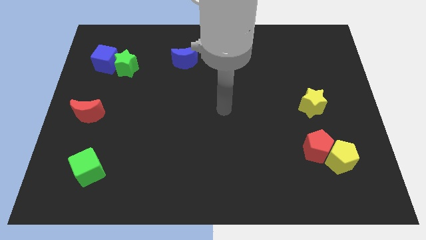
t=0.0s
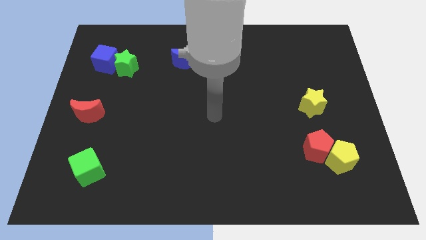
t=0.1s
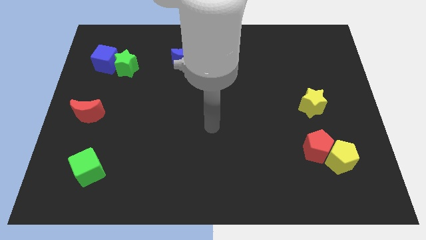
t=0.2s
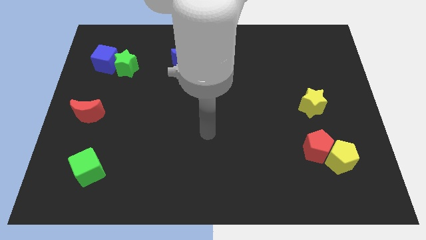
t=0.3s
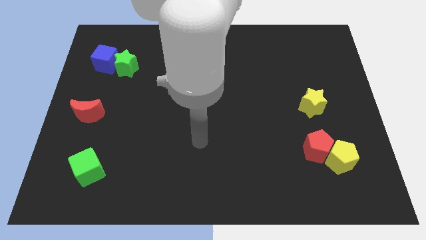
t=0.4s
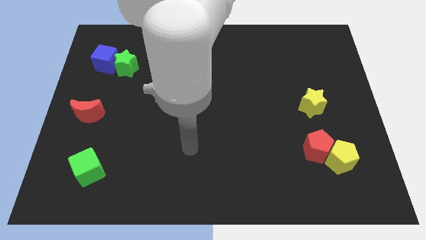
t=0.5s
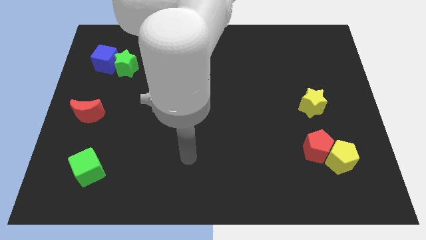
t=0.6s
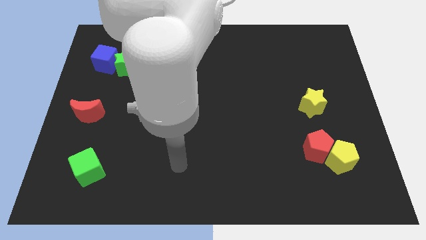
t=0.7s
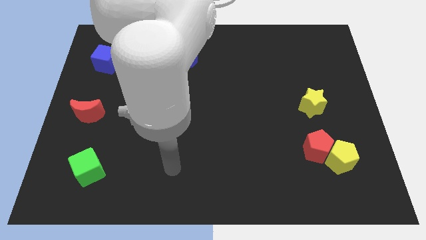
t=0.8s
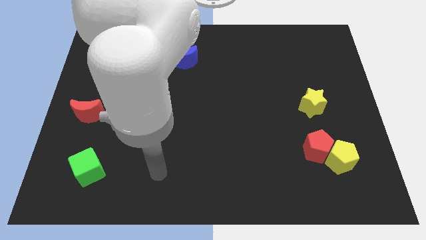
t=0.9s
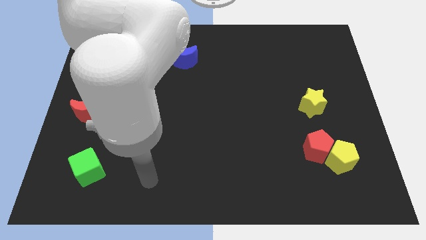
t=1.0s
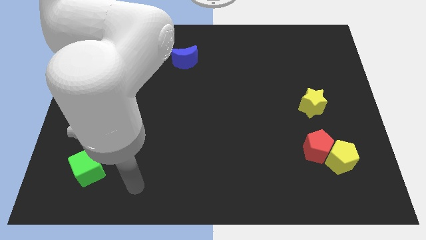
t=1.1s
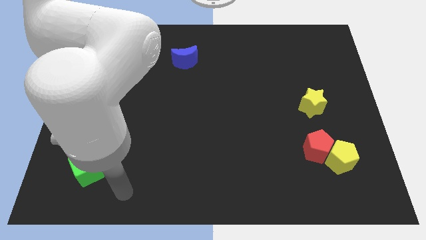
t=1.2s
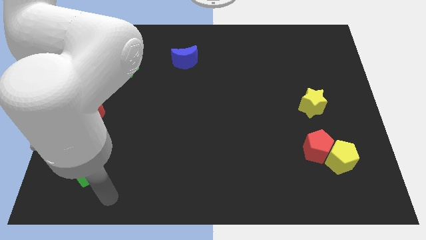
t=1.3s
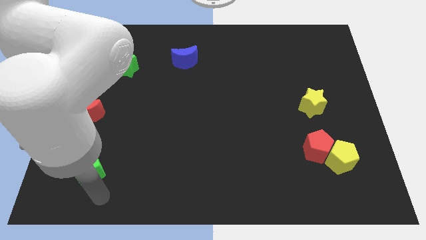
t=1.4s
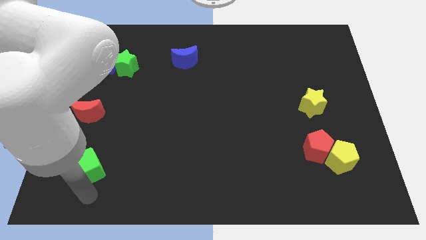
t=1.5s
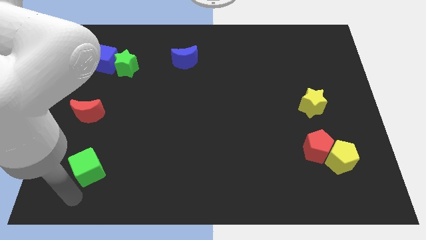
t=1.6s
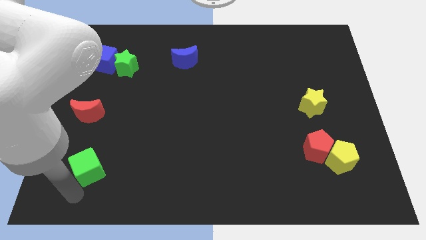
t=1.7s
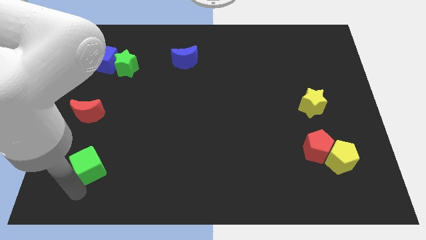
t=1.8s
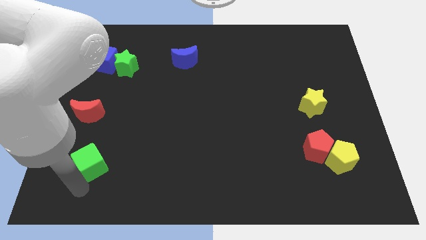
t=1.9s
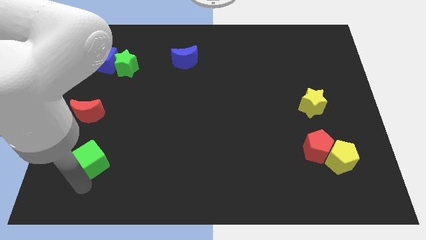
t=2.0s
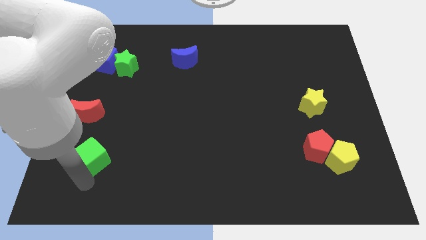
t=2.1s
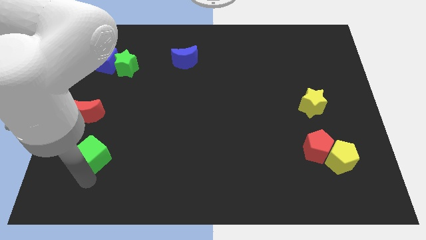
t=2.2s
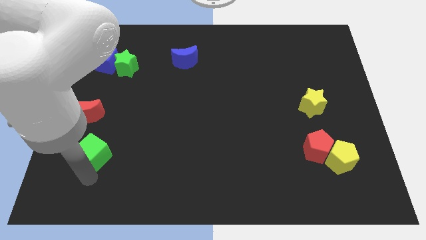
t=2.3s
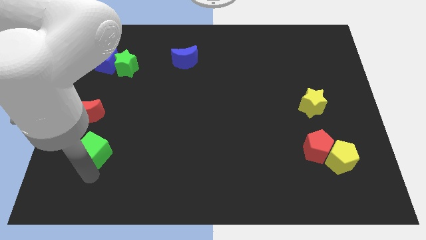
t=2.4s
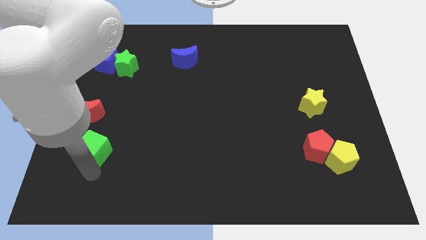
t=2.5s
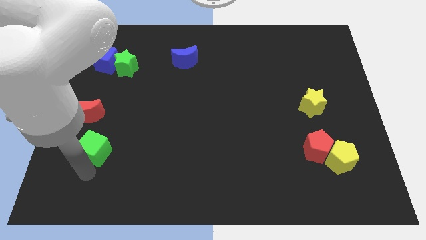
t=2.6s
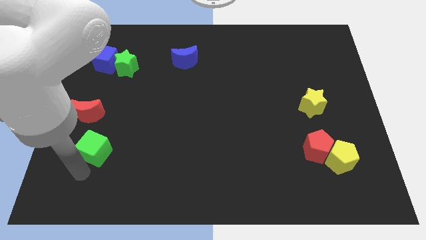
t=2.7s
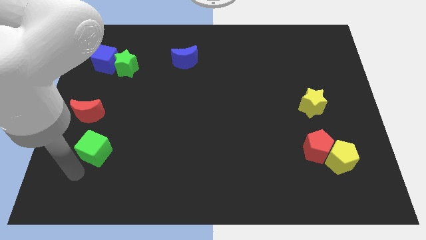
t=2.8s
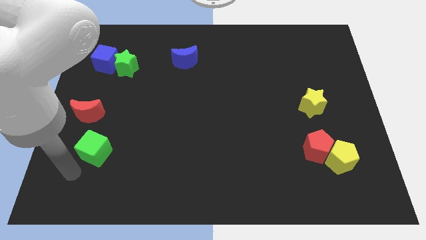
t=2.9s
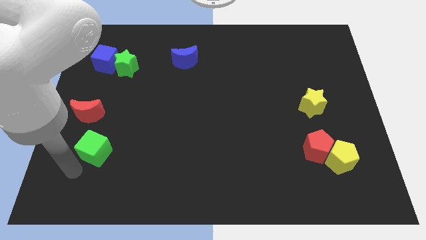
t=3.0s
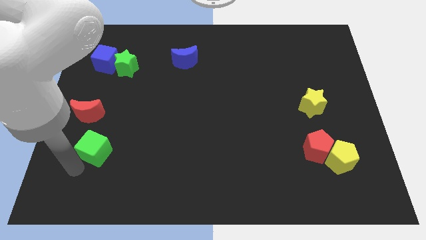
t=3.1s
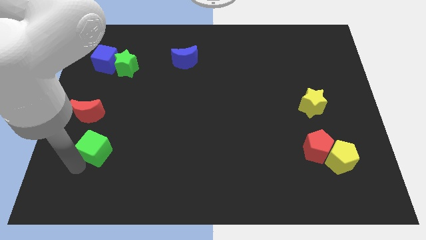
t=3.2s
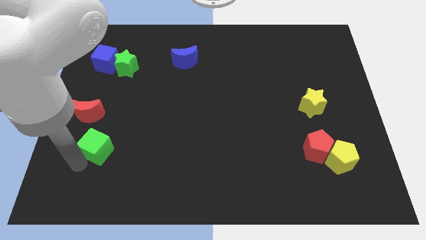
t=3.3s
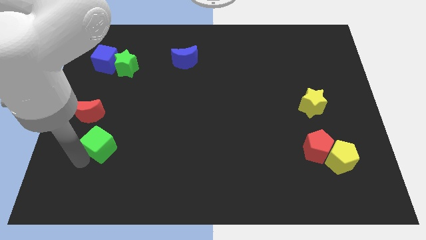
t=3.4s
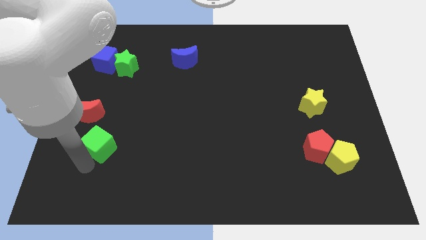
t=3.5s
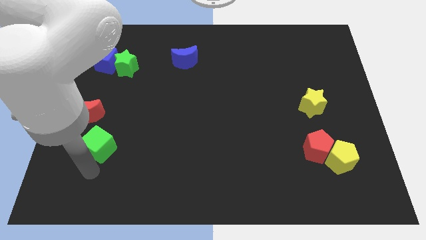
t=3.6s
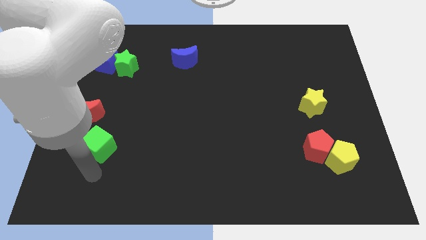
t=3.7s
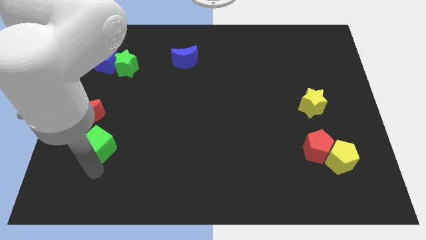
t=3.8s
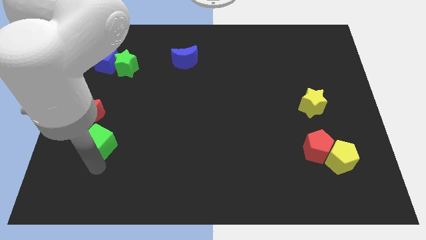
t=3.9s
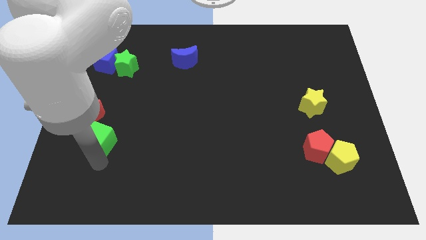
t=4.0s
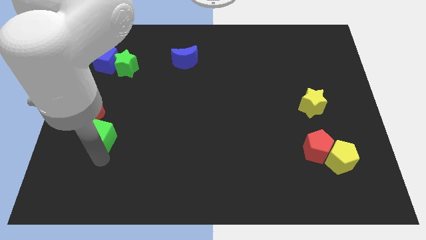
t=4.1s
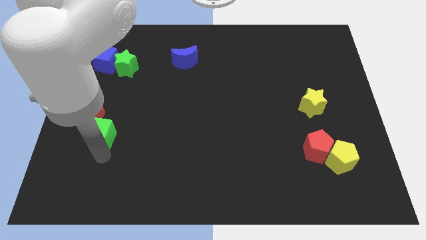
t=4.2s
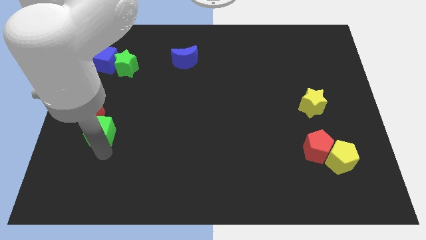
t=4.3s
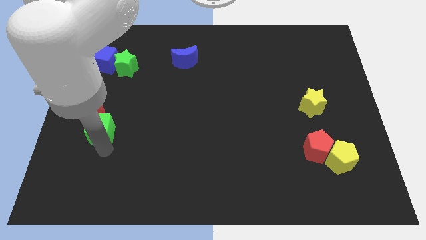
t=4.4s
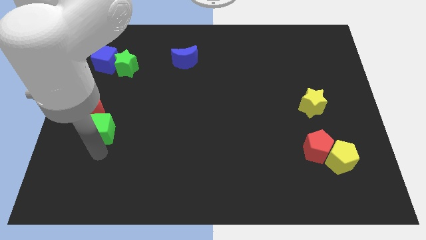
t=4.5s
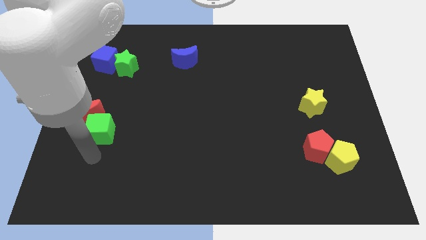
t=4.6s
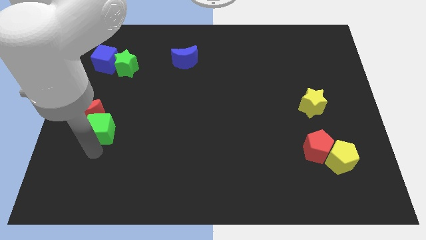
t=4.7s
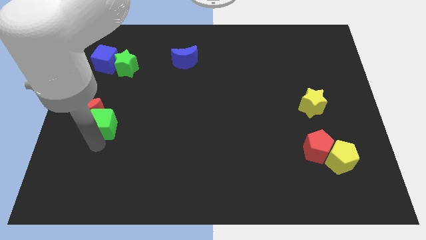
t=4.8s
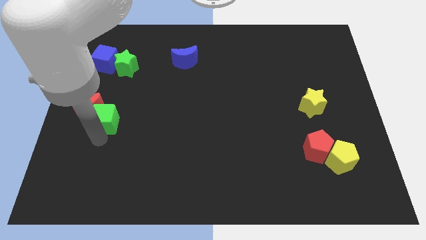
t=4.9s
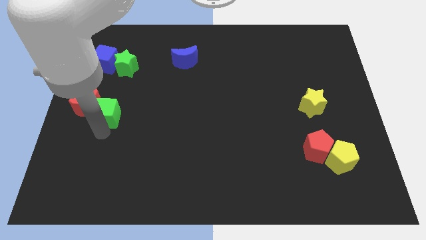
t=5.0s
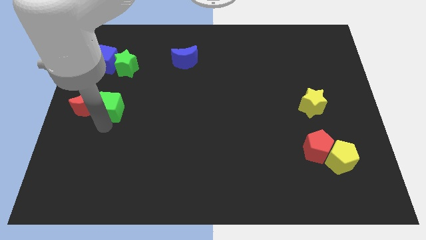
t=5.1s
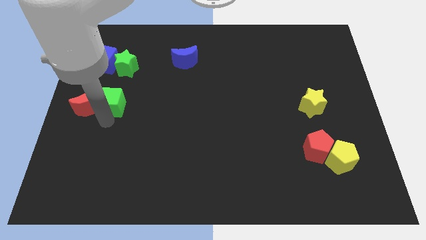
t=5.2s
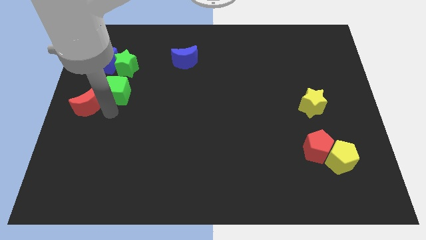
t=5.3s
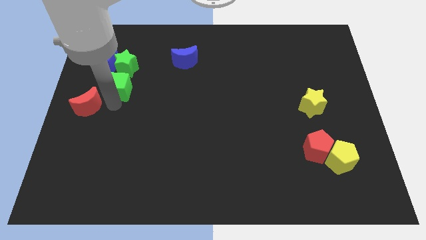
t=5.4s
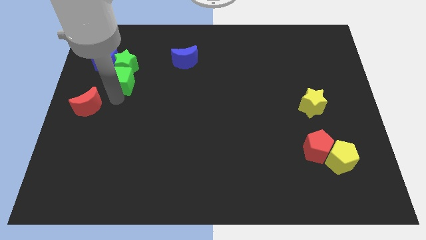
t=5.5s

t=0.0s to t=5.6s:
put the green cube to the green star

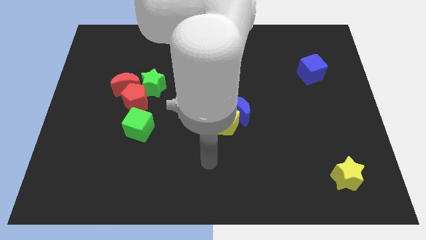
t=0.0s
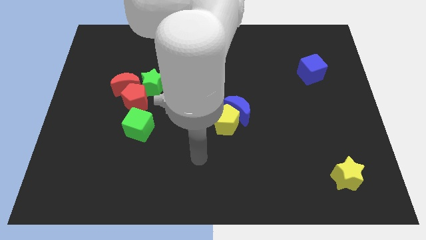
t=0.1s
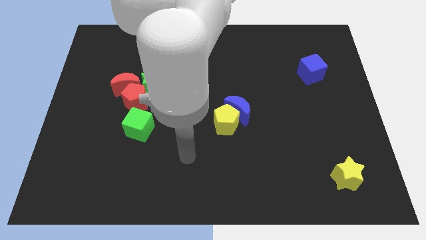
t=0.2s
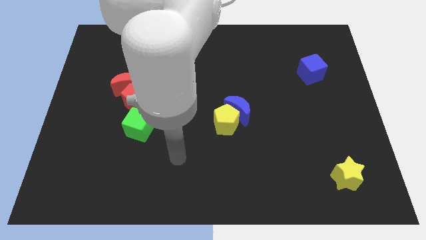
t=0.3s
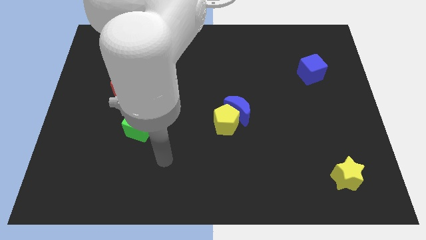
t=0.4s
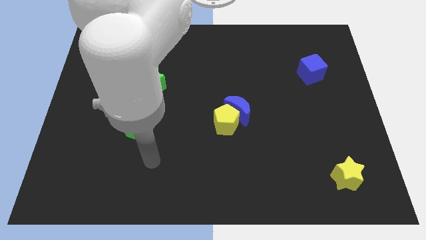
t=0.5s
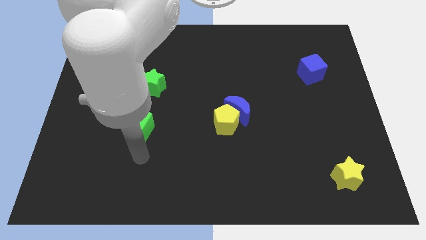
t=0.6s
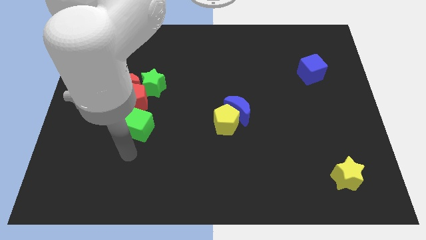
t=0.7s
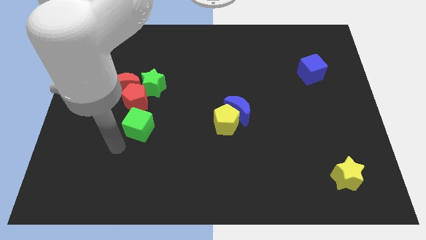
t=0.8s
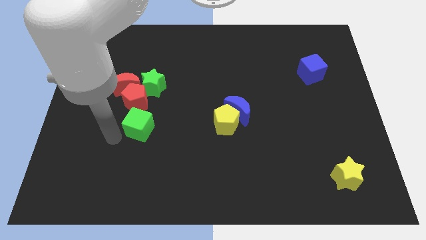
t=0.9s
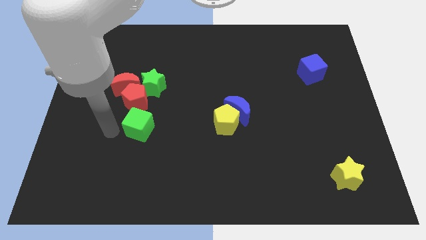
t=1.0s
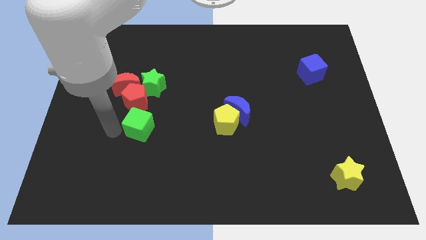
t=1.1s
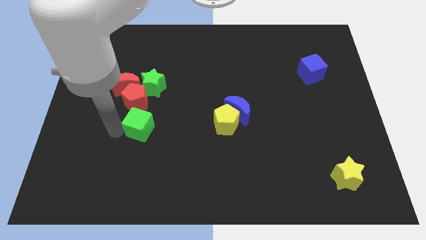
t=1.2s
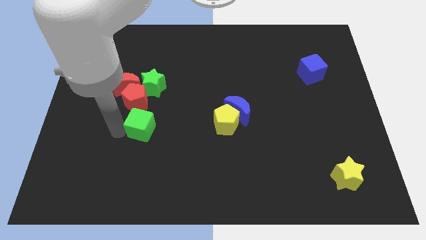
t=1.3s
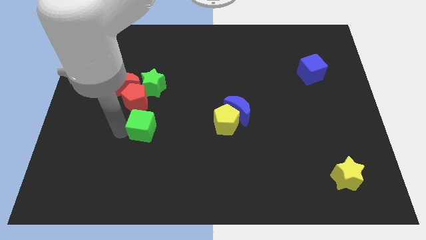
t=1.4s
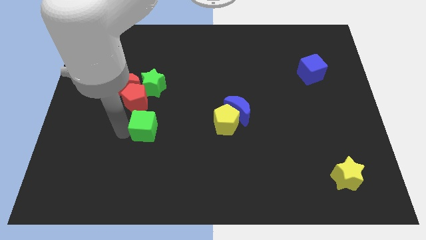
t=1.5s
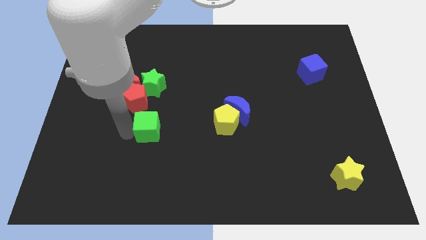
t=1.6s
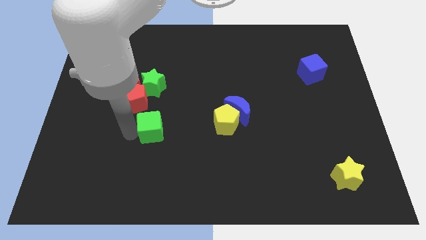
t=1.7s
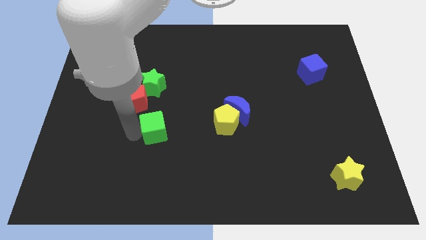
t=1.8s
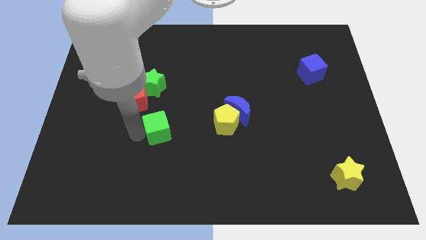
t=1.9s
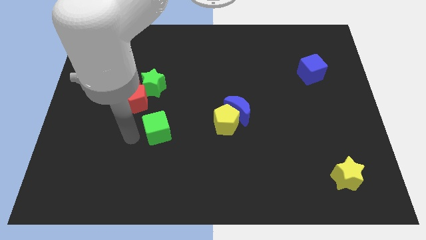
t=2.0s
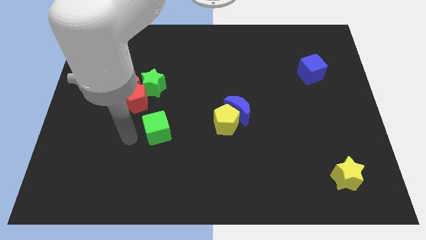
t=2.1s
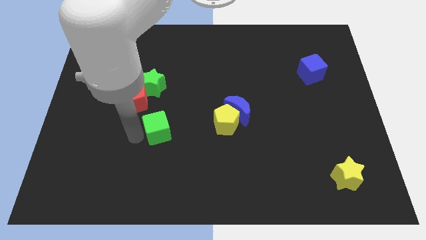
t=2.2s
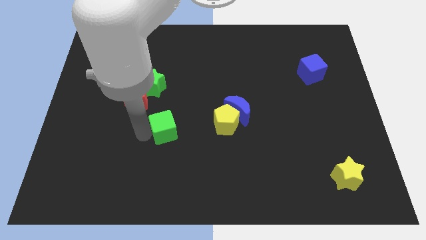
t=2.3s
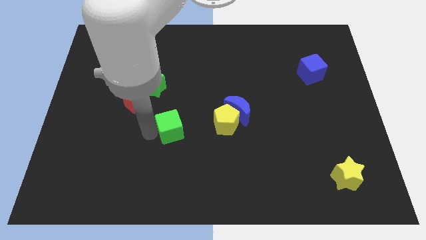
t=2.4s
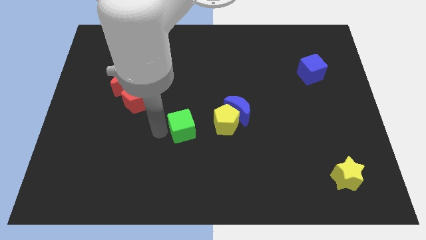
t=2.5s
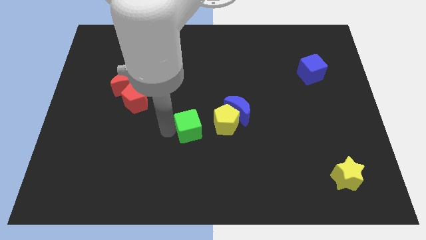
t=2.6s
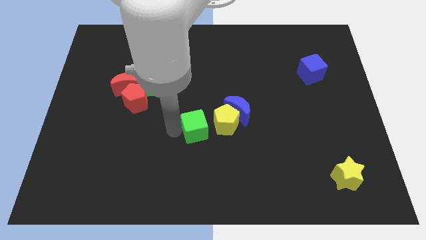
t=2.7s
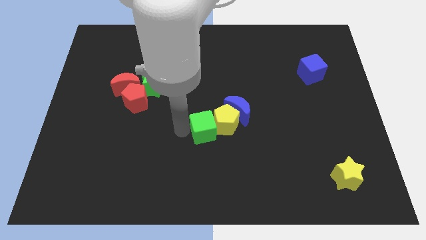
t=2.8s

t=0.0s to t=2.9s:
slide the green cube to the yellow pentagon
